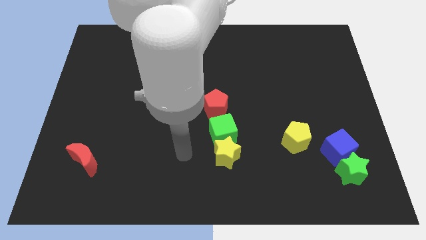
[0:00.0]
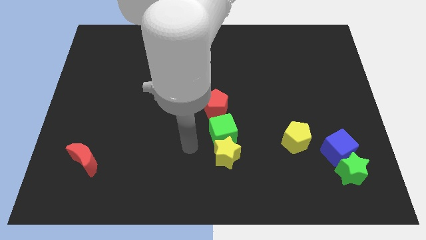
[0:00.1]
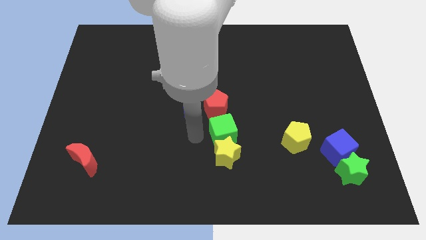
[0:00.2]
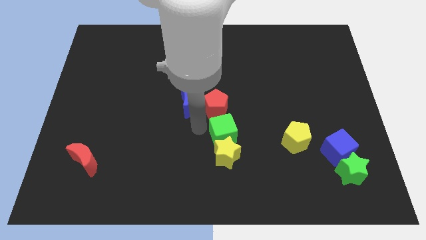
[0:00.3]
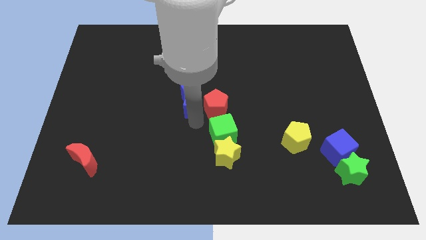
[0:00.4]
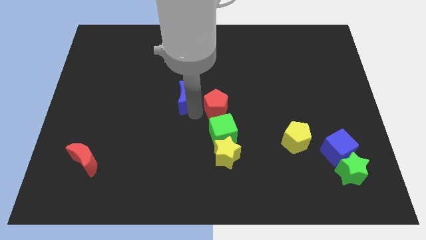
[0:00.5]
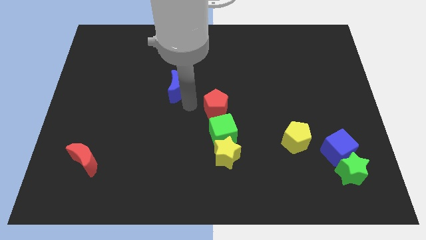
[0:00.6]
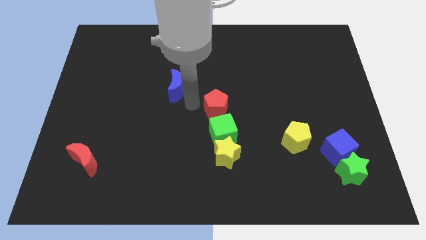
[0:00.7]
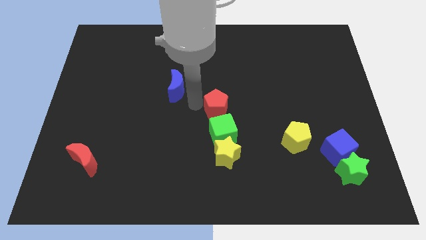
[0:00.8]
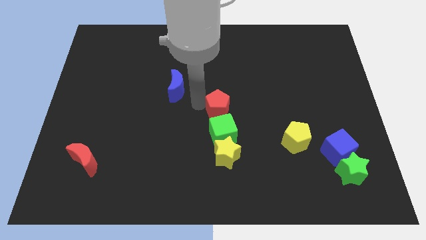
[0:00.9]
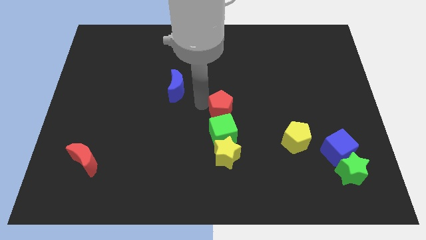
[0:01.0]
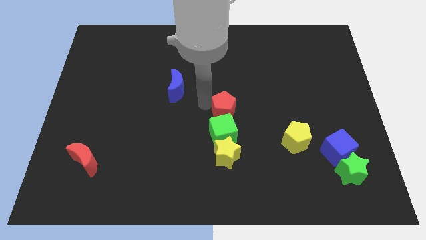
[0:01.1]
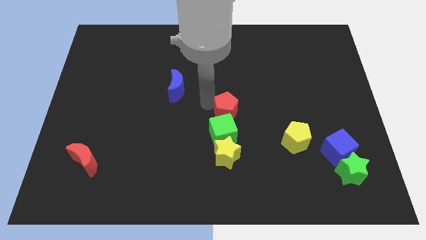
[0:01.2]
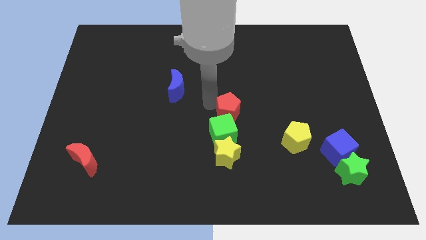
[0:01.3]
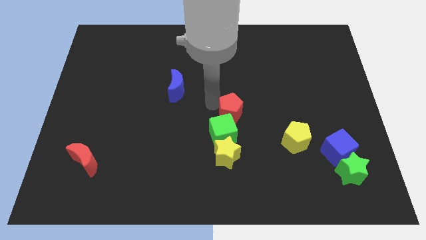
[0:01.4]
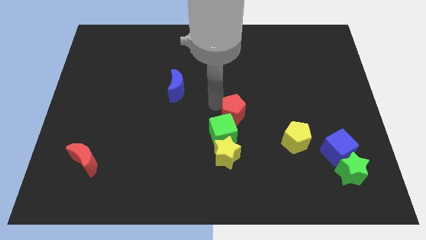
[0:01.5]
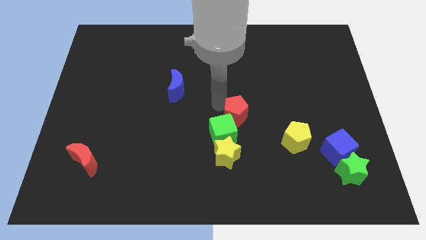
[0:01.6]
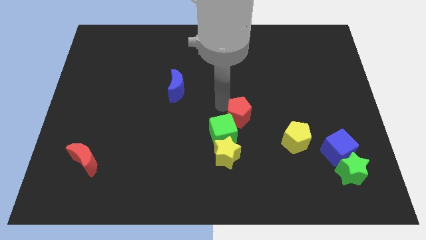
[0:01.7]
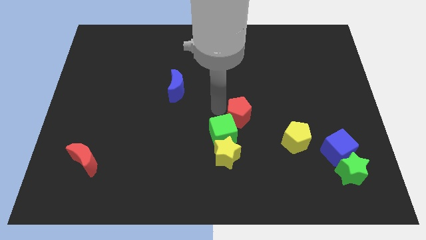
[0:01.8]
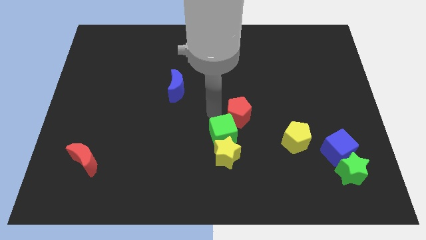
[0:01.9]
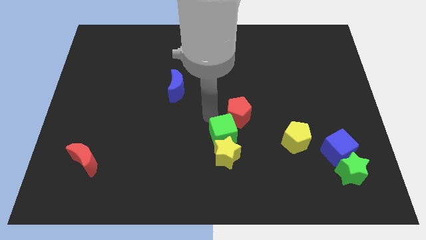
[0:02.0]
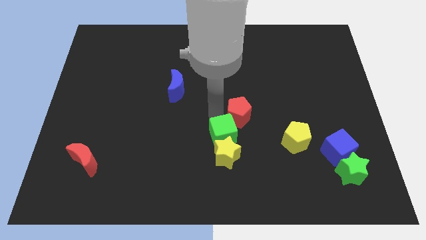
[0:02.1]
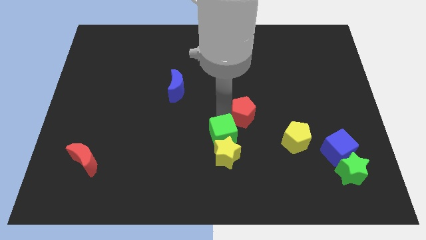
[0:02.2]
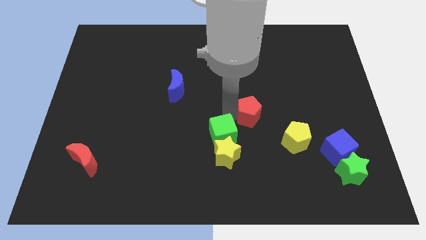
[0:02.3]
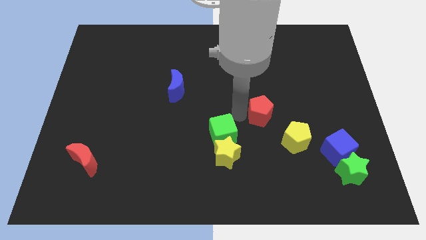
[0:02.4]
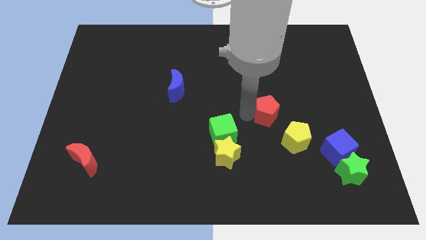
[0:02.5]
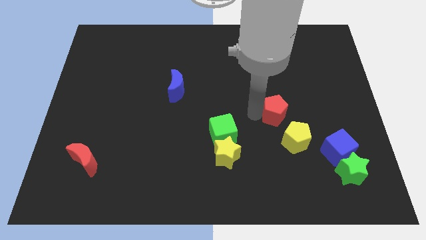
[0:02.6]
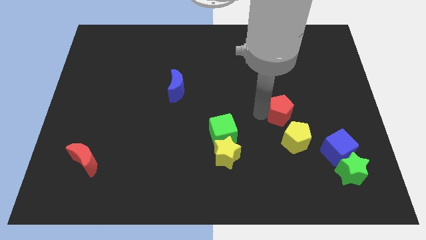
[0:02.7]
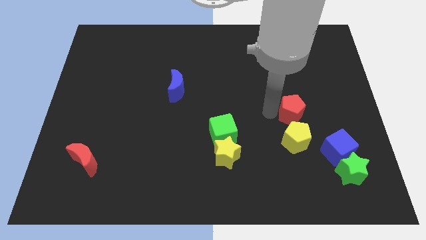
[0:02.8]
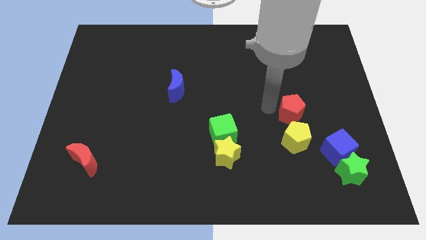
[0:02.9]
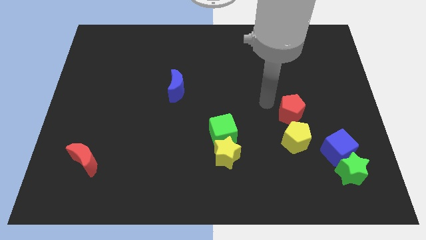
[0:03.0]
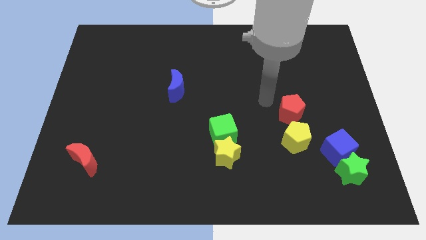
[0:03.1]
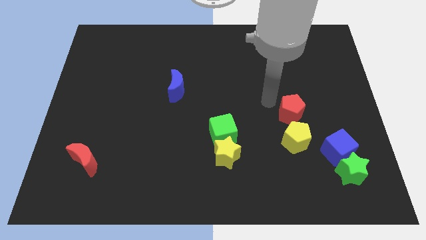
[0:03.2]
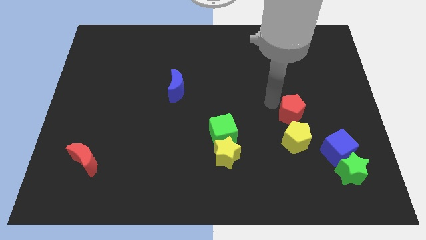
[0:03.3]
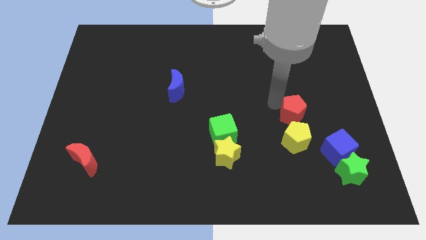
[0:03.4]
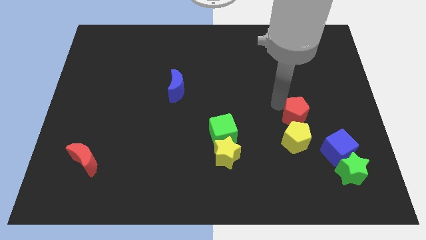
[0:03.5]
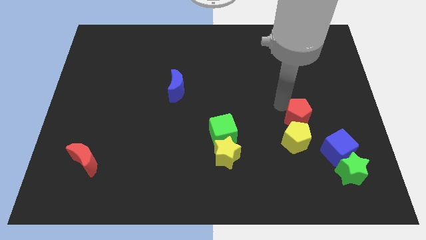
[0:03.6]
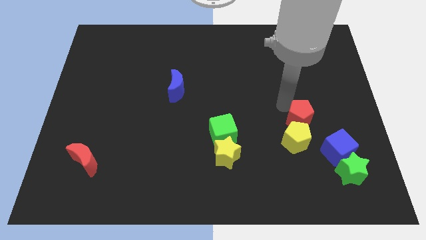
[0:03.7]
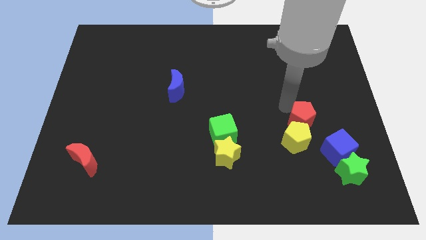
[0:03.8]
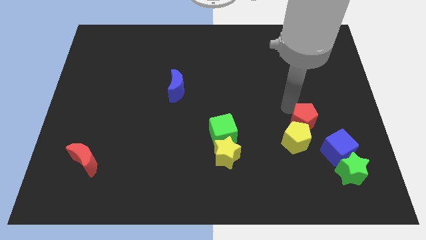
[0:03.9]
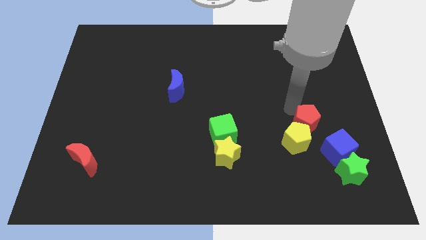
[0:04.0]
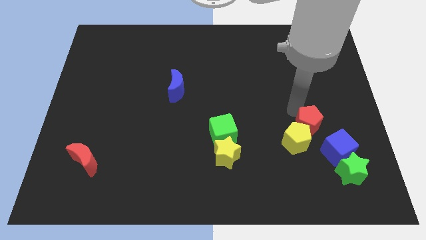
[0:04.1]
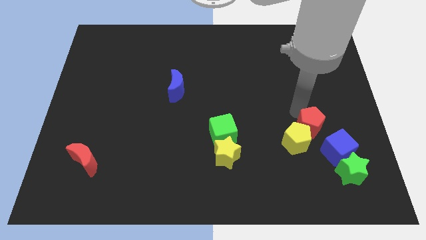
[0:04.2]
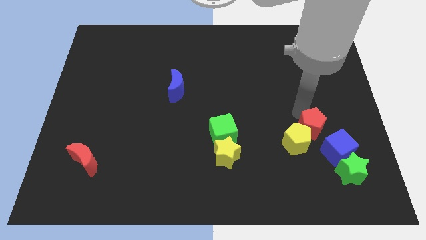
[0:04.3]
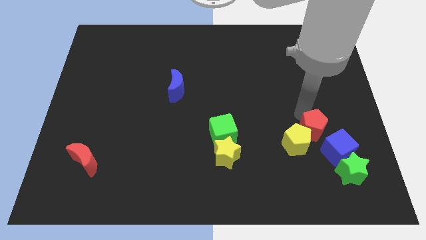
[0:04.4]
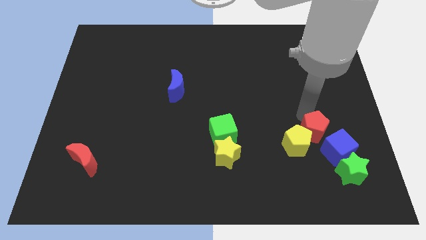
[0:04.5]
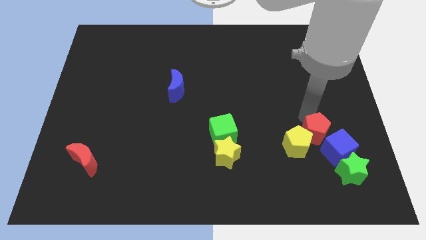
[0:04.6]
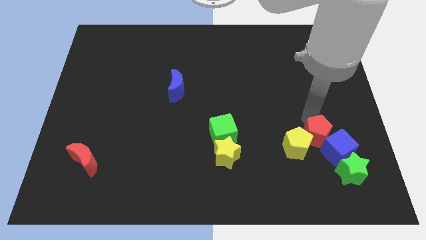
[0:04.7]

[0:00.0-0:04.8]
move the red pentagon next to the blue cube

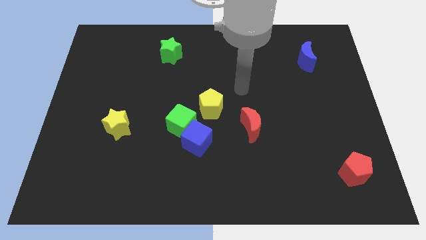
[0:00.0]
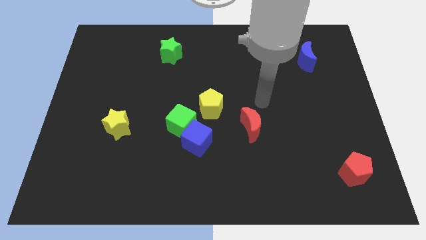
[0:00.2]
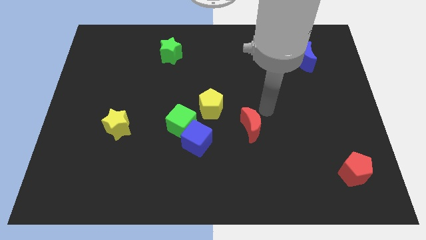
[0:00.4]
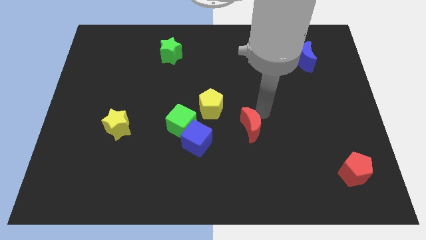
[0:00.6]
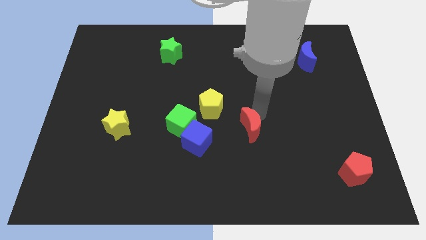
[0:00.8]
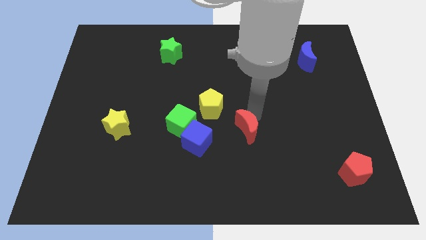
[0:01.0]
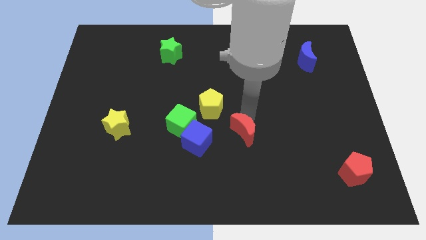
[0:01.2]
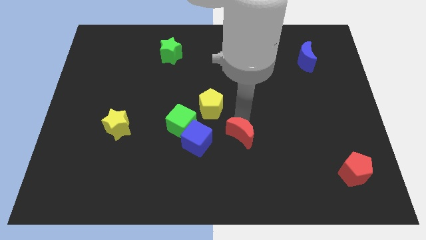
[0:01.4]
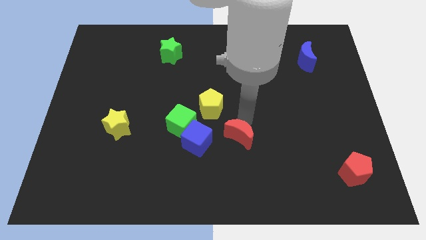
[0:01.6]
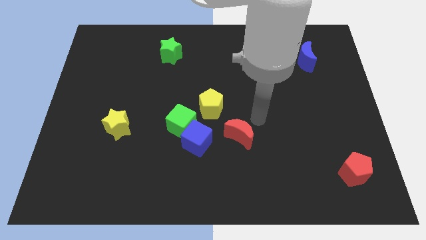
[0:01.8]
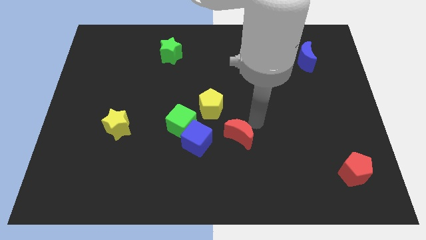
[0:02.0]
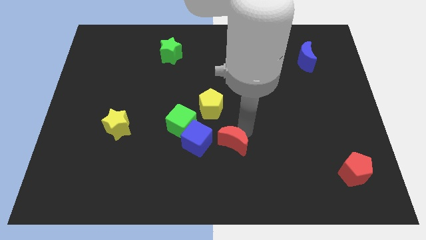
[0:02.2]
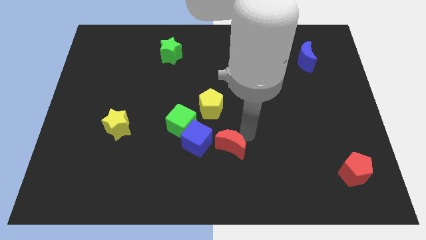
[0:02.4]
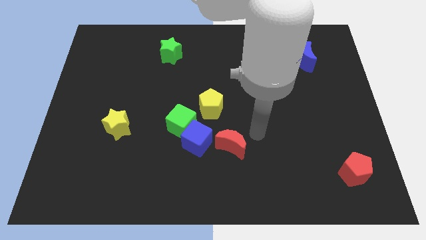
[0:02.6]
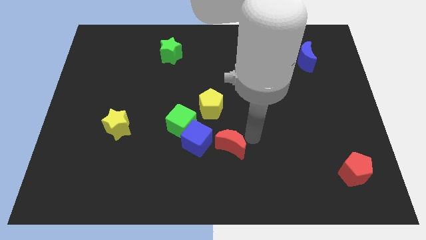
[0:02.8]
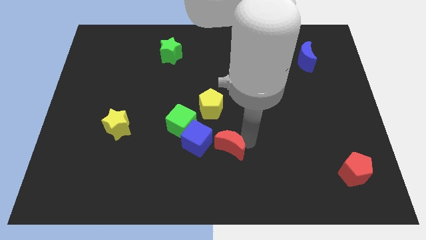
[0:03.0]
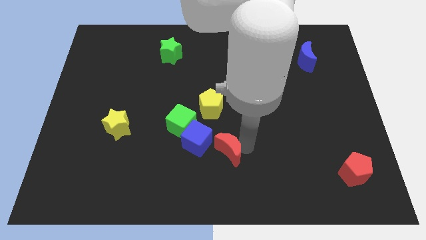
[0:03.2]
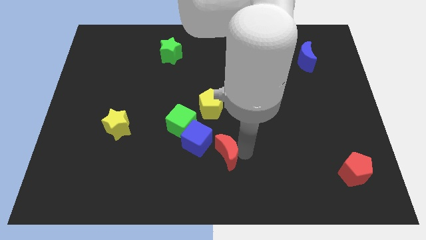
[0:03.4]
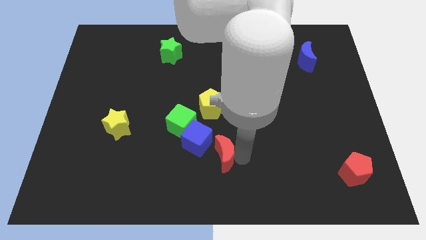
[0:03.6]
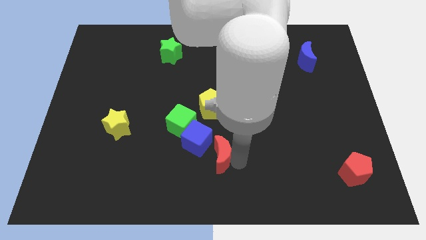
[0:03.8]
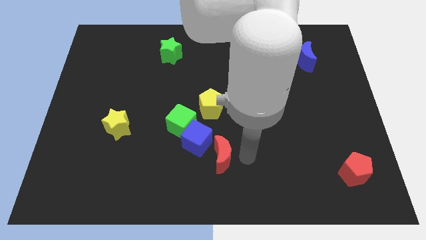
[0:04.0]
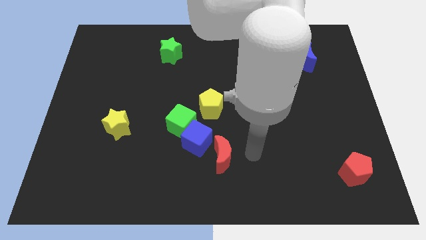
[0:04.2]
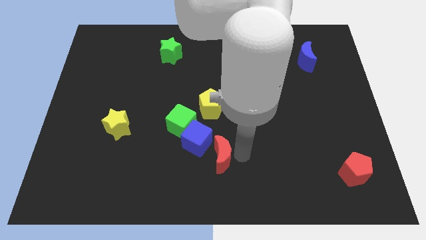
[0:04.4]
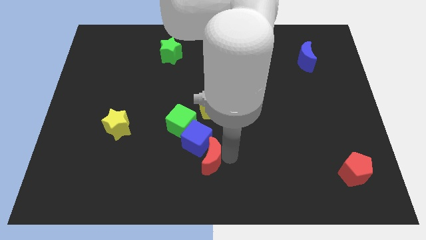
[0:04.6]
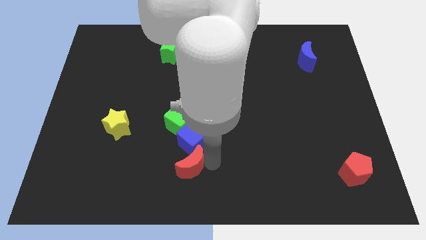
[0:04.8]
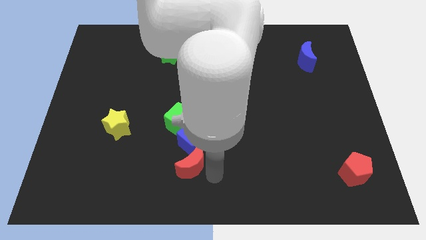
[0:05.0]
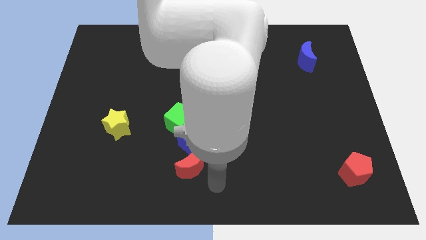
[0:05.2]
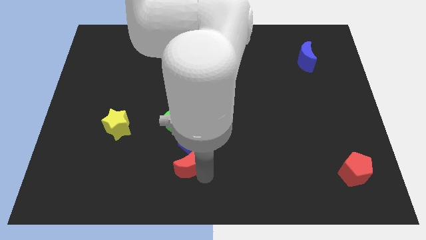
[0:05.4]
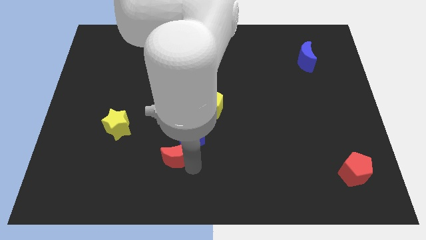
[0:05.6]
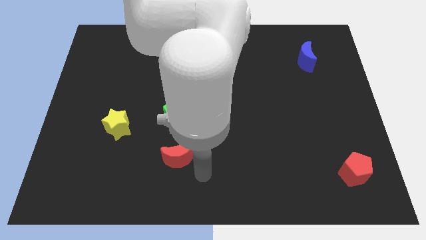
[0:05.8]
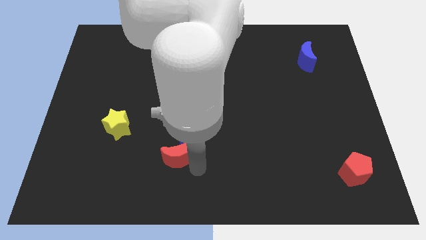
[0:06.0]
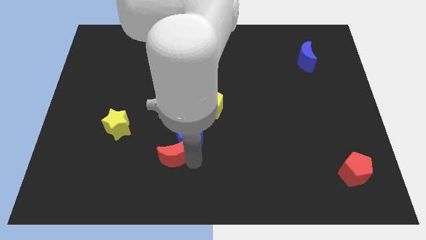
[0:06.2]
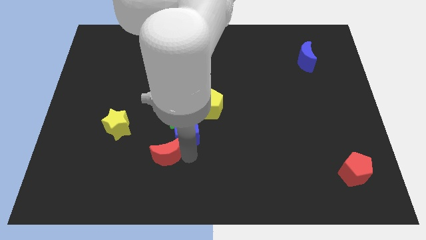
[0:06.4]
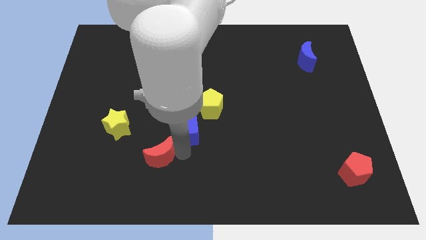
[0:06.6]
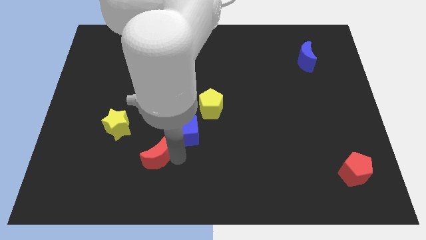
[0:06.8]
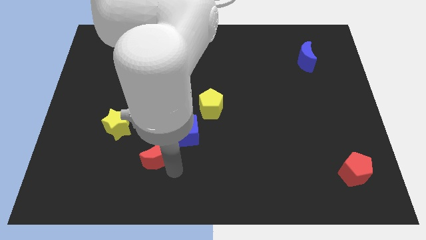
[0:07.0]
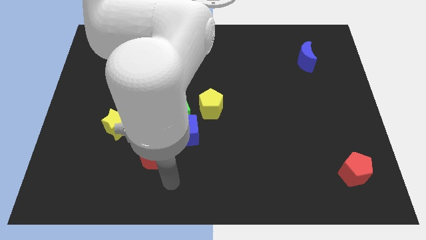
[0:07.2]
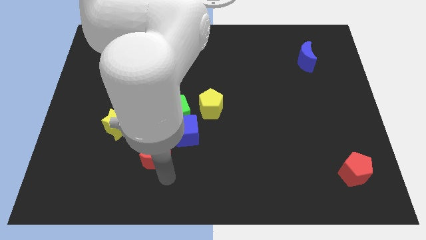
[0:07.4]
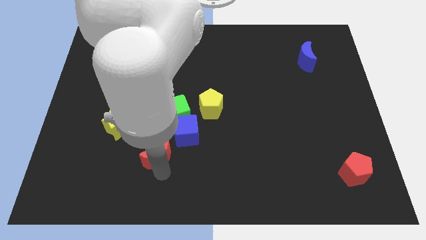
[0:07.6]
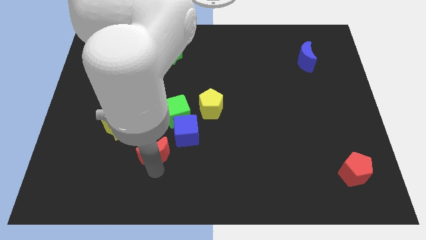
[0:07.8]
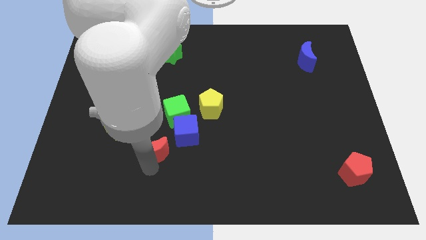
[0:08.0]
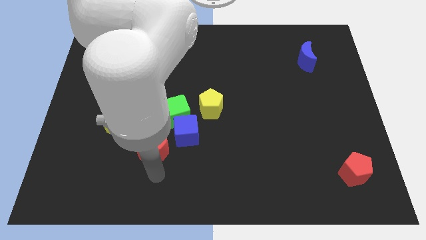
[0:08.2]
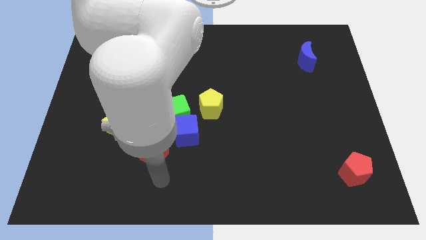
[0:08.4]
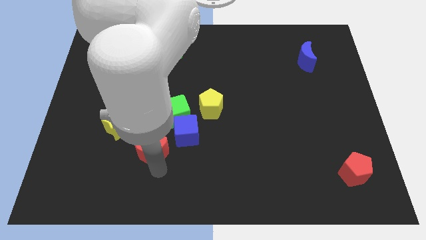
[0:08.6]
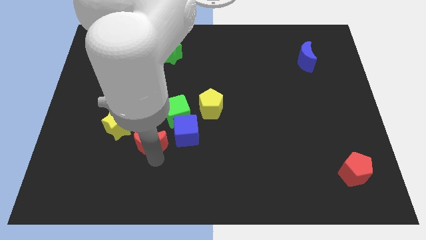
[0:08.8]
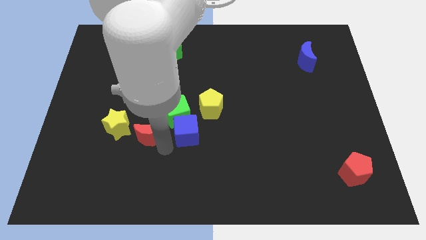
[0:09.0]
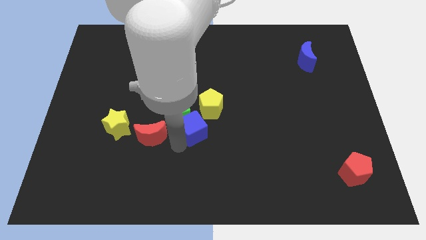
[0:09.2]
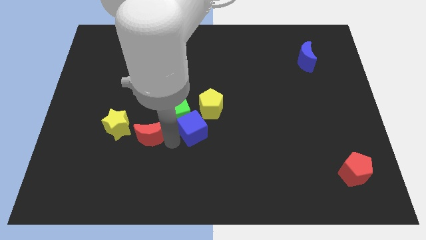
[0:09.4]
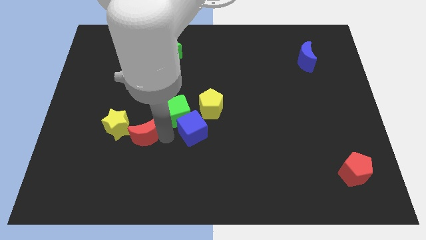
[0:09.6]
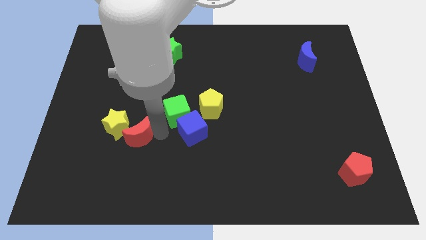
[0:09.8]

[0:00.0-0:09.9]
move the red moon towards the yellow star
